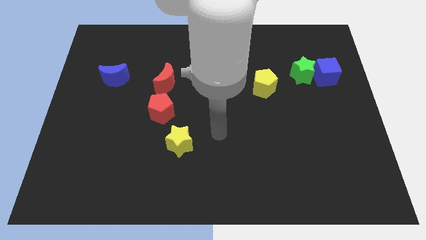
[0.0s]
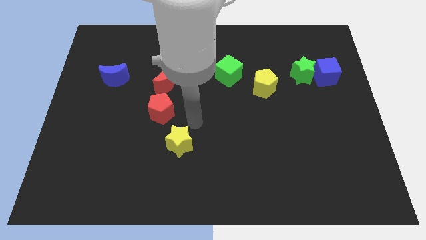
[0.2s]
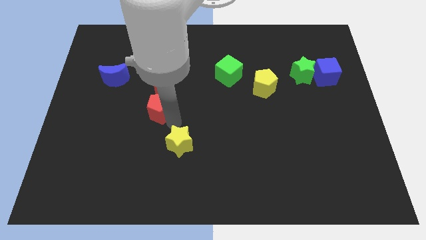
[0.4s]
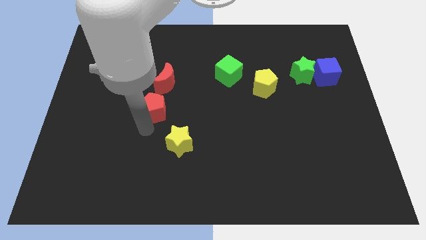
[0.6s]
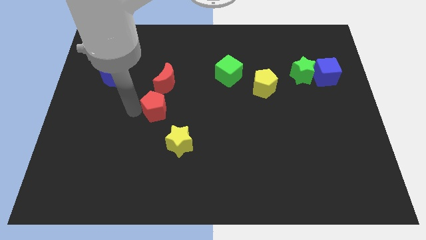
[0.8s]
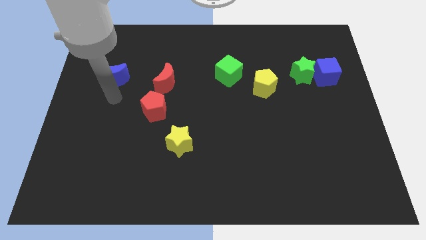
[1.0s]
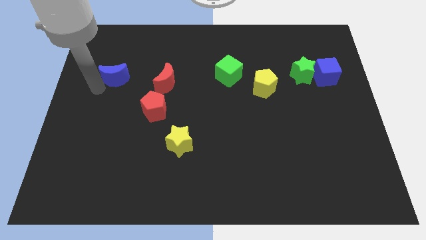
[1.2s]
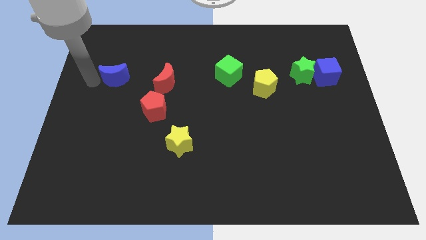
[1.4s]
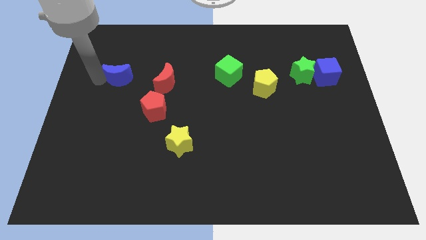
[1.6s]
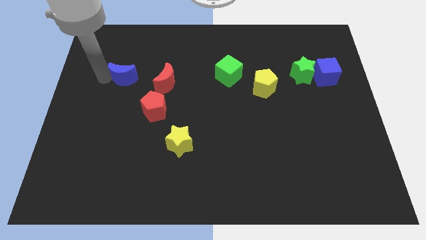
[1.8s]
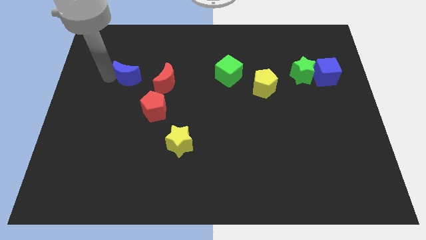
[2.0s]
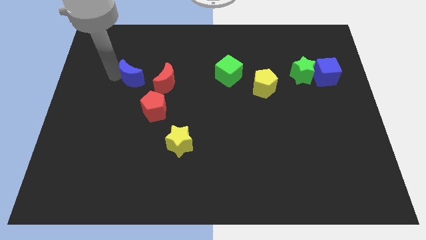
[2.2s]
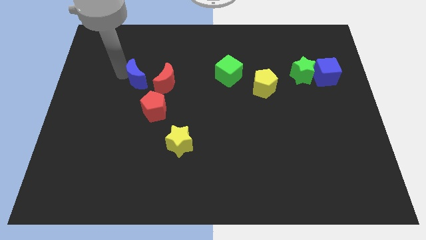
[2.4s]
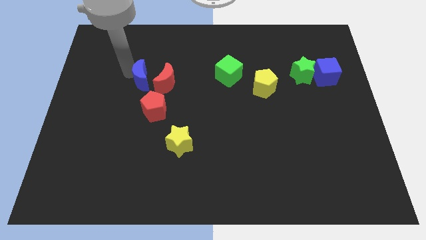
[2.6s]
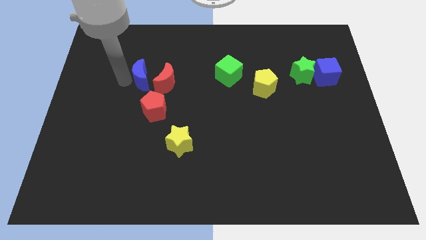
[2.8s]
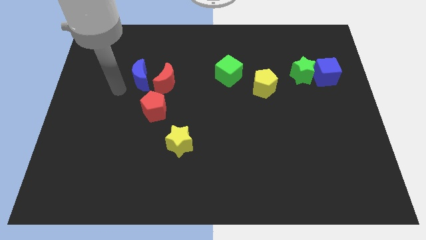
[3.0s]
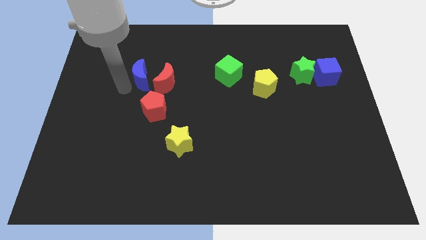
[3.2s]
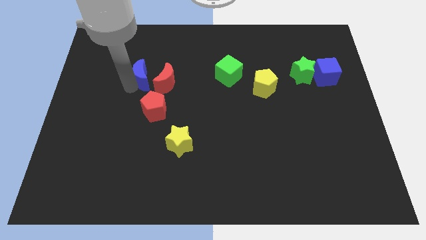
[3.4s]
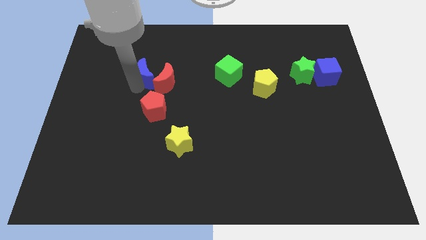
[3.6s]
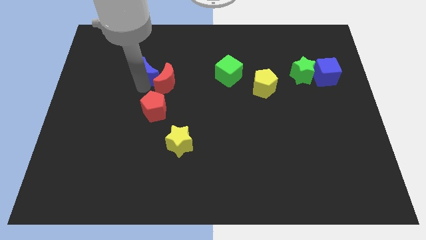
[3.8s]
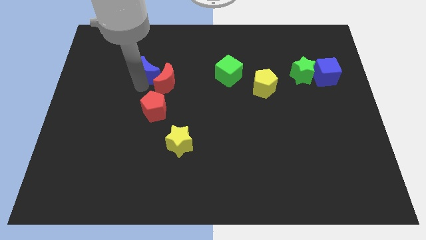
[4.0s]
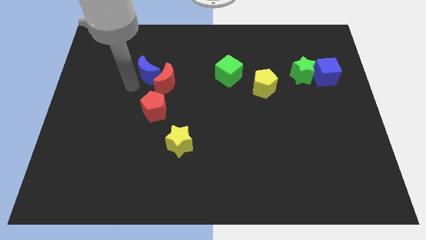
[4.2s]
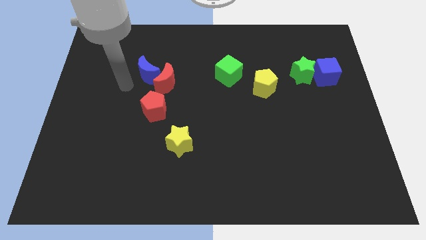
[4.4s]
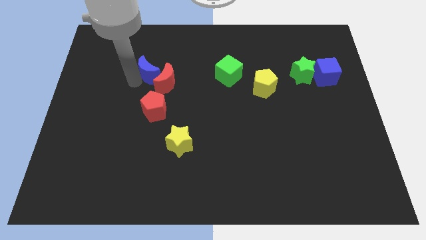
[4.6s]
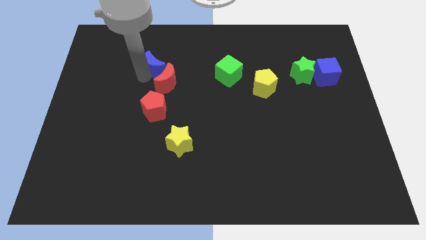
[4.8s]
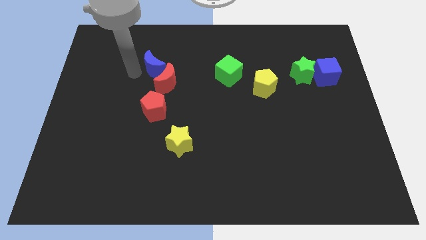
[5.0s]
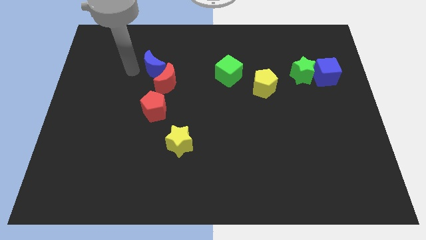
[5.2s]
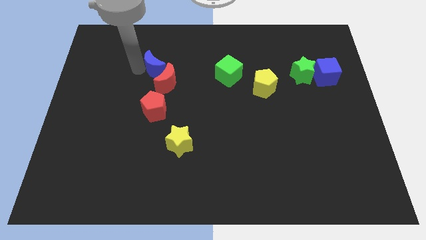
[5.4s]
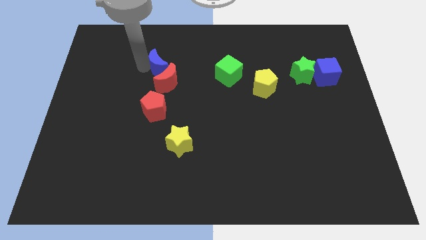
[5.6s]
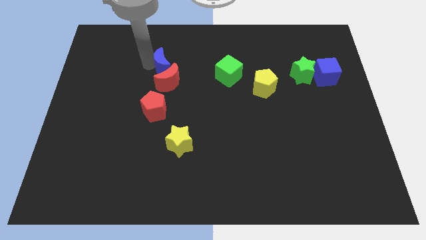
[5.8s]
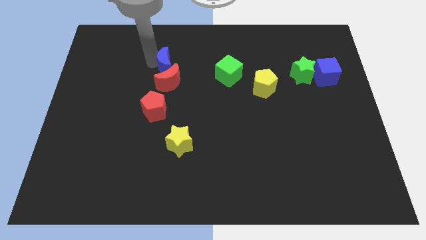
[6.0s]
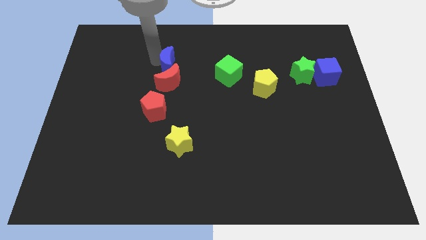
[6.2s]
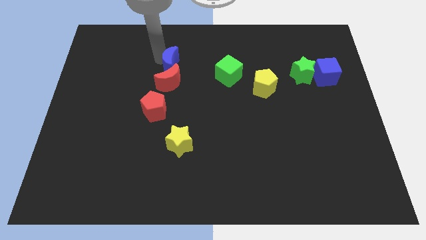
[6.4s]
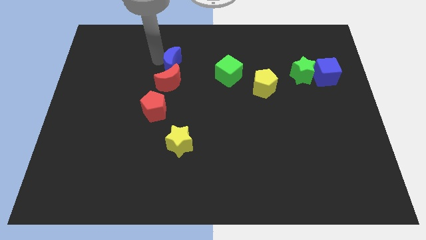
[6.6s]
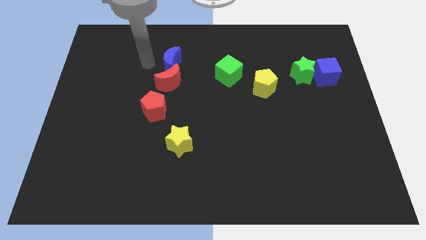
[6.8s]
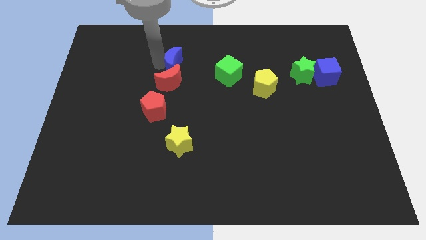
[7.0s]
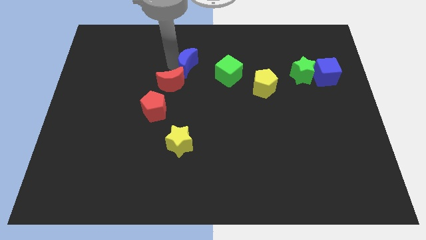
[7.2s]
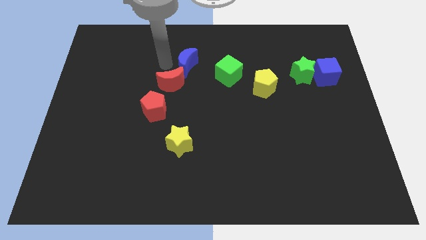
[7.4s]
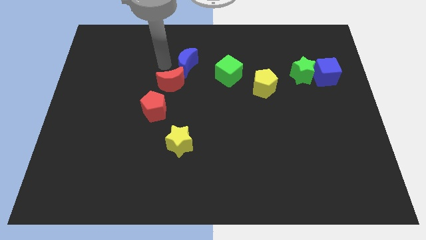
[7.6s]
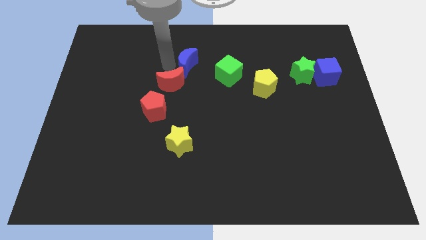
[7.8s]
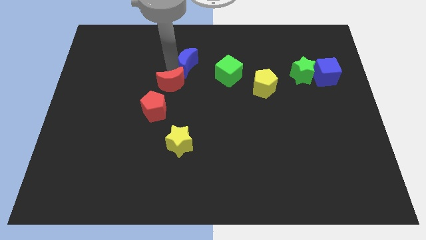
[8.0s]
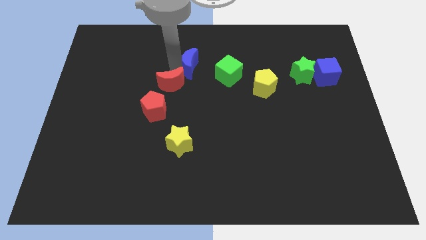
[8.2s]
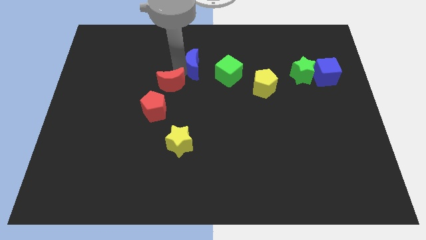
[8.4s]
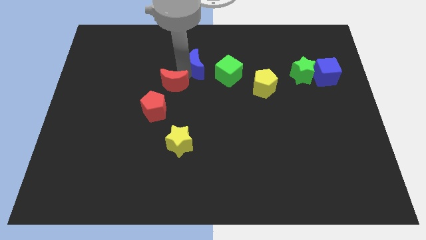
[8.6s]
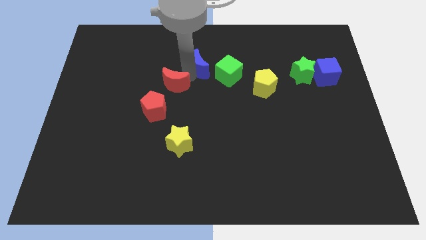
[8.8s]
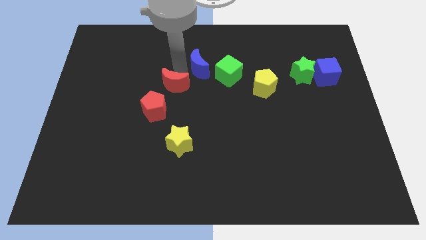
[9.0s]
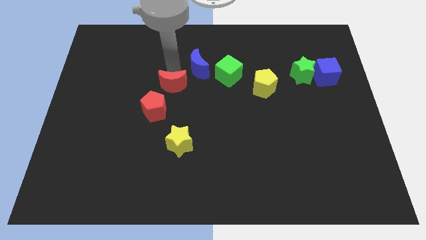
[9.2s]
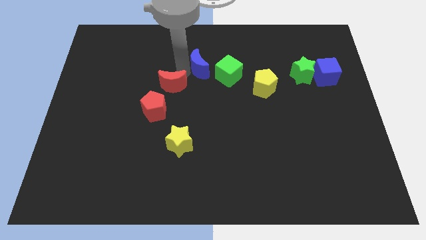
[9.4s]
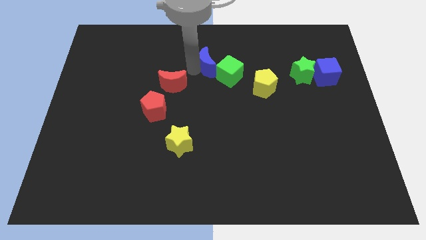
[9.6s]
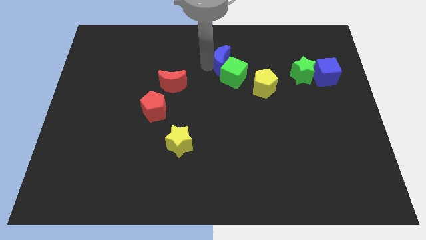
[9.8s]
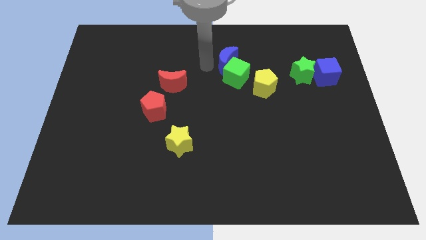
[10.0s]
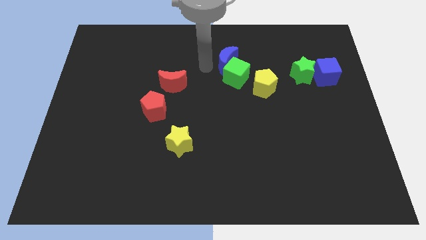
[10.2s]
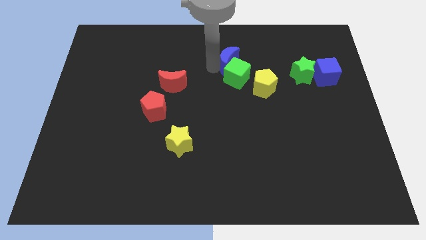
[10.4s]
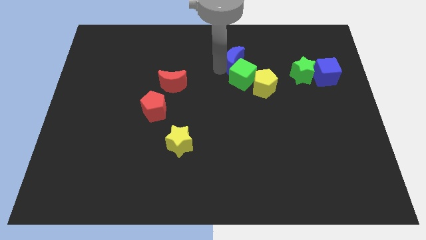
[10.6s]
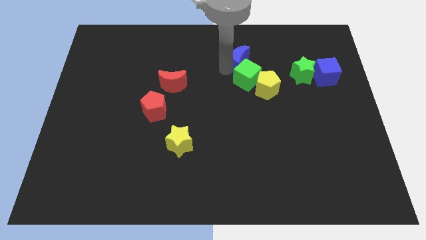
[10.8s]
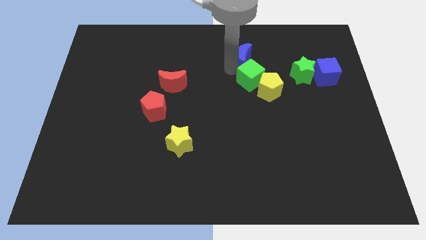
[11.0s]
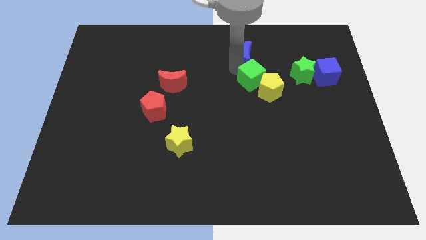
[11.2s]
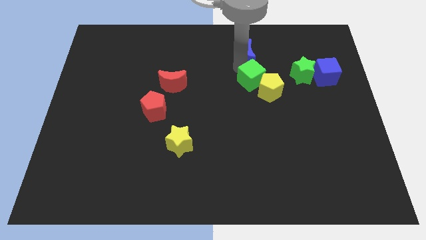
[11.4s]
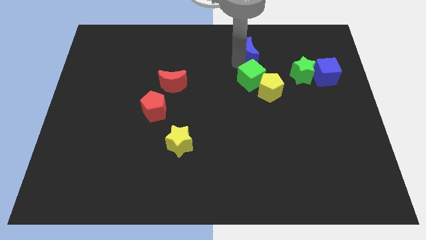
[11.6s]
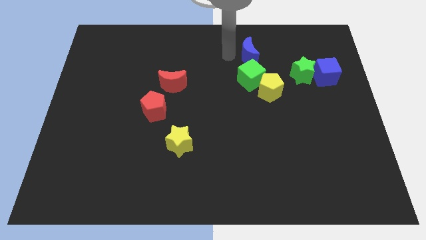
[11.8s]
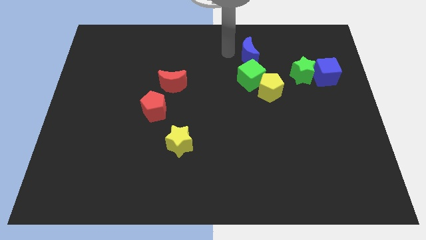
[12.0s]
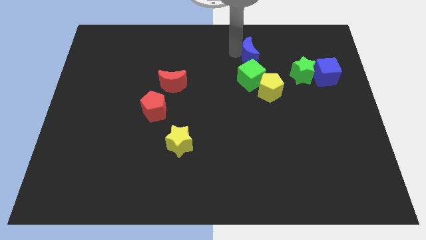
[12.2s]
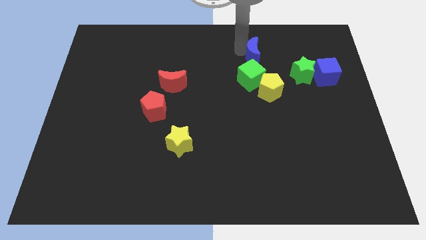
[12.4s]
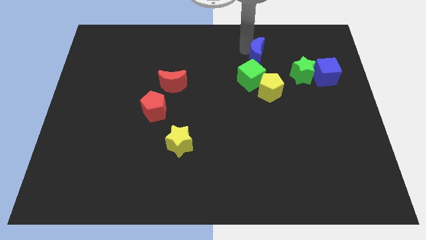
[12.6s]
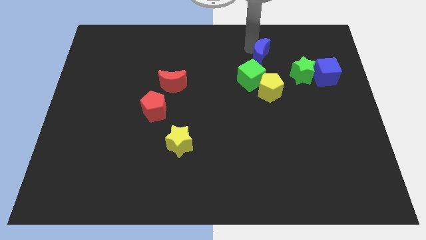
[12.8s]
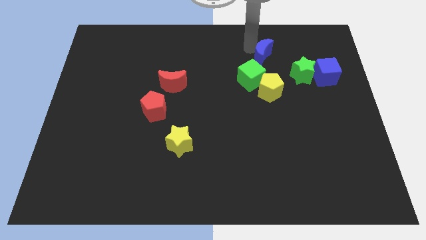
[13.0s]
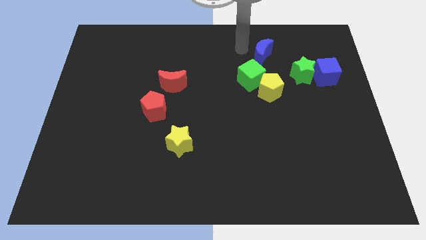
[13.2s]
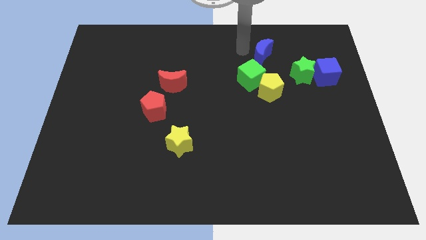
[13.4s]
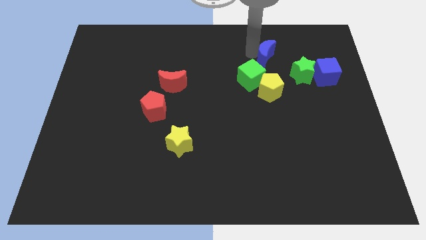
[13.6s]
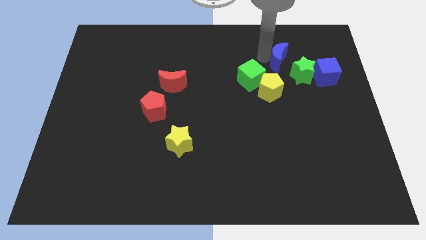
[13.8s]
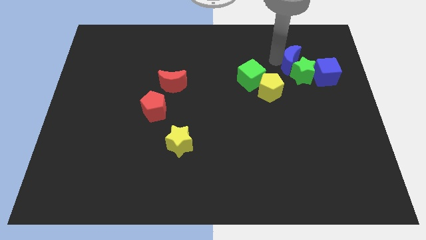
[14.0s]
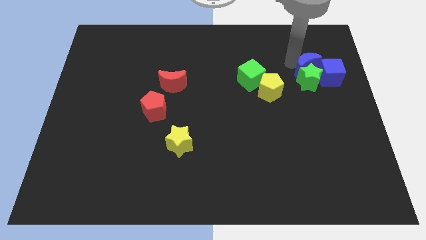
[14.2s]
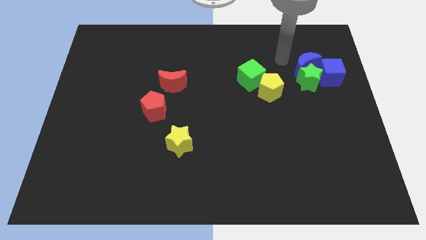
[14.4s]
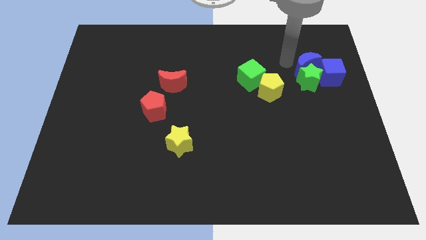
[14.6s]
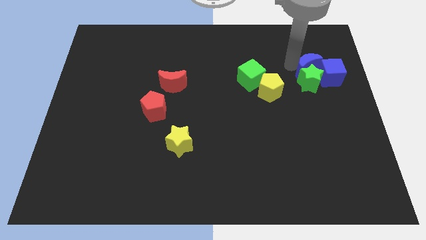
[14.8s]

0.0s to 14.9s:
put the blue moon next to the blue cube
